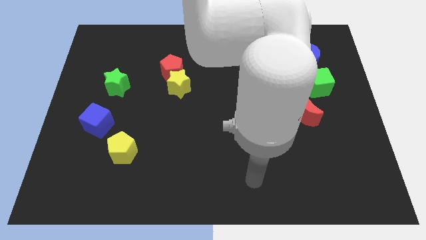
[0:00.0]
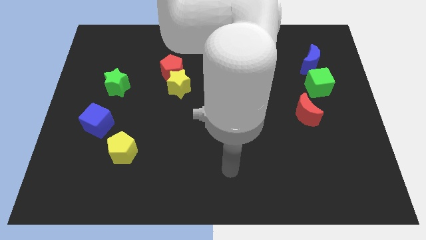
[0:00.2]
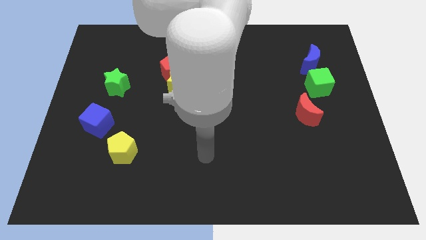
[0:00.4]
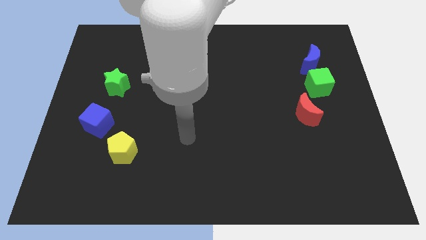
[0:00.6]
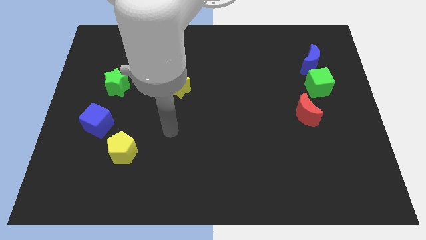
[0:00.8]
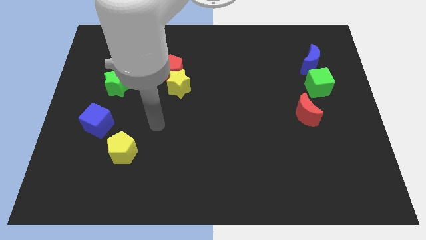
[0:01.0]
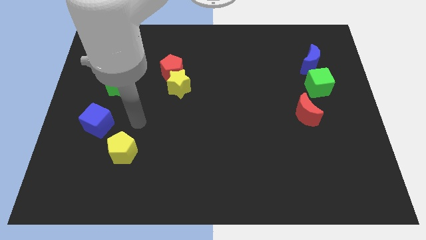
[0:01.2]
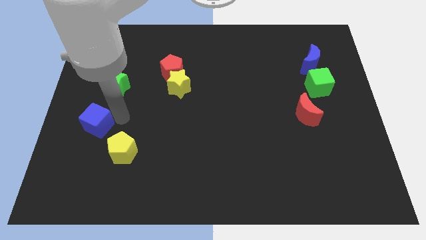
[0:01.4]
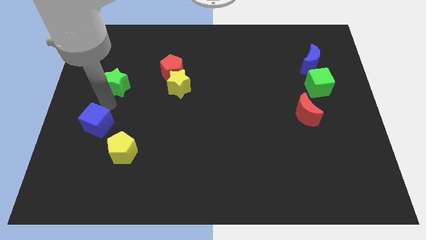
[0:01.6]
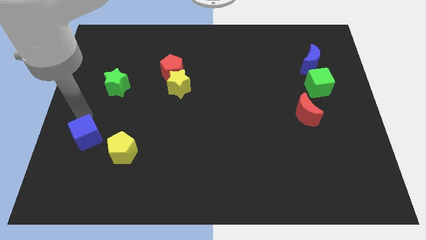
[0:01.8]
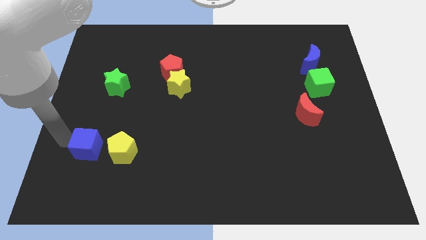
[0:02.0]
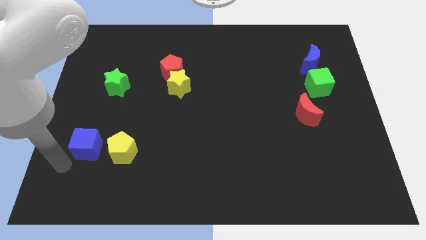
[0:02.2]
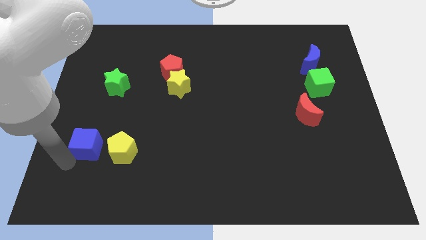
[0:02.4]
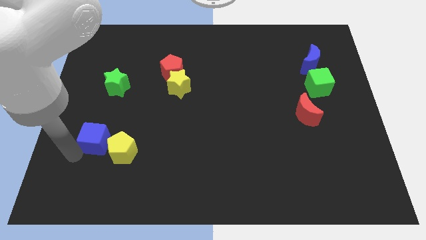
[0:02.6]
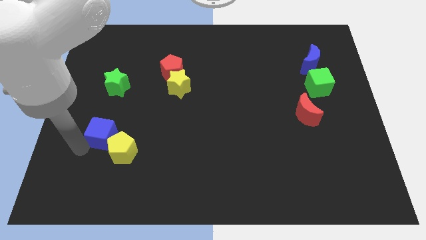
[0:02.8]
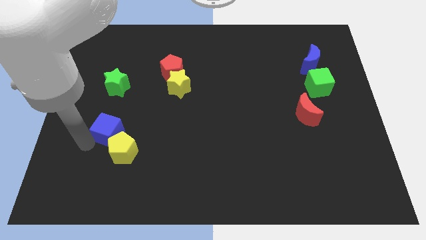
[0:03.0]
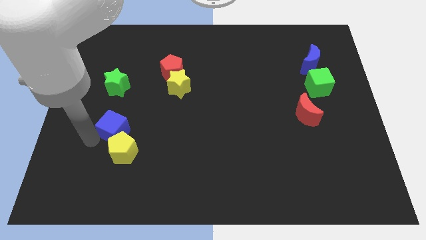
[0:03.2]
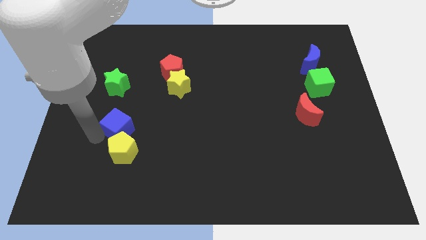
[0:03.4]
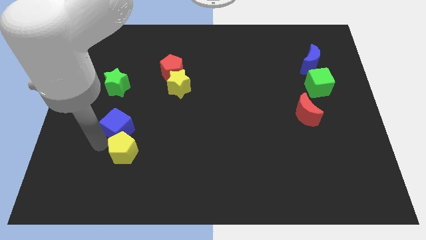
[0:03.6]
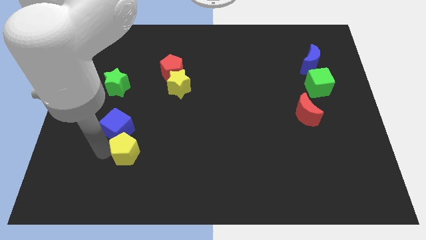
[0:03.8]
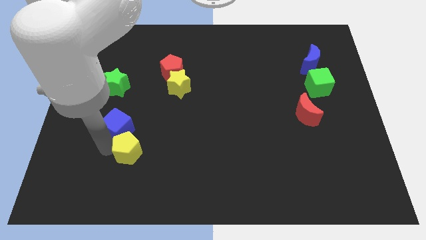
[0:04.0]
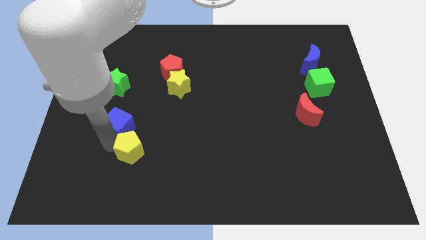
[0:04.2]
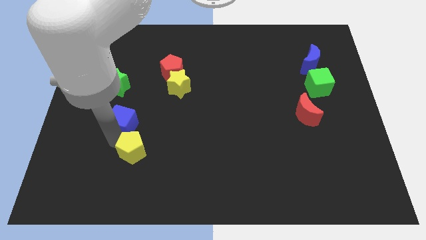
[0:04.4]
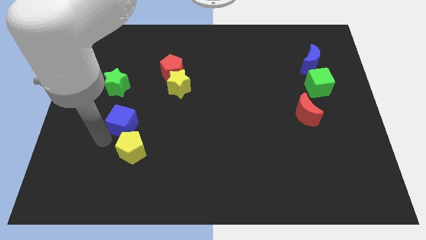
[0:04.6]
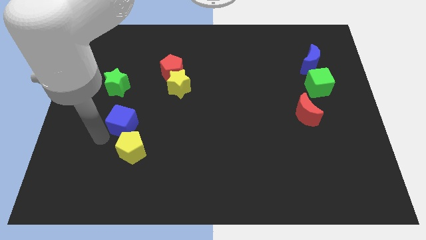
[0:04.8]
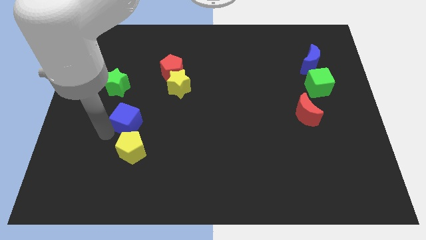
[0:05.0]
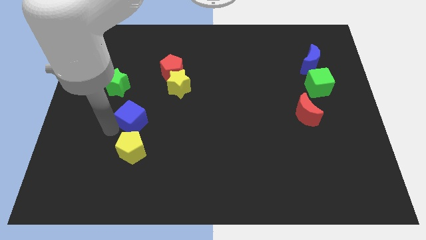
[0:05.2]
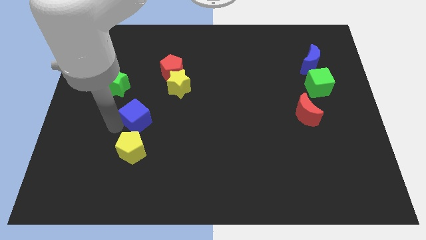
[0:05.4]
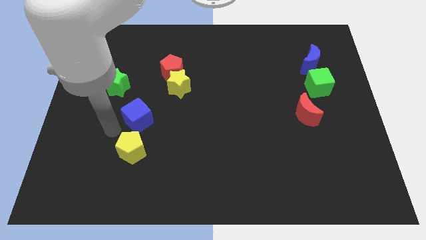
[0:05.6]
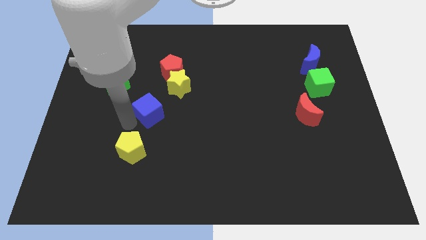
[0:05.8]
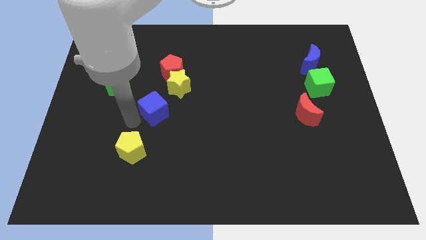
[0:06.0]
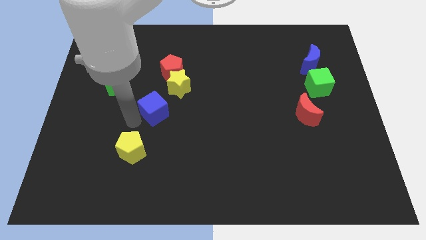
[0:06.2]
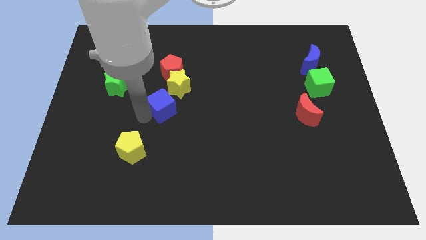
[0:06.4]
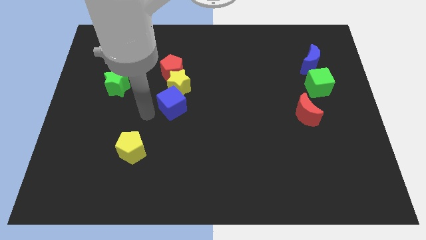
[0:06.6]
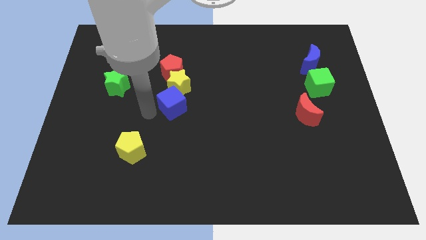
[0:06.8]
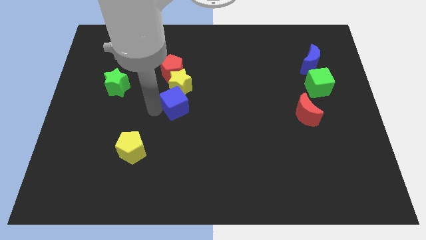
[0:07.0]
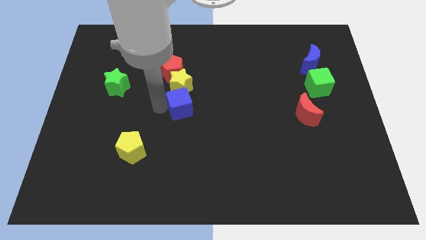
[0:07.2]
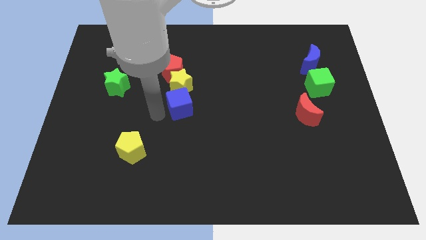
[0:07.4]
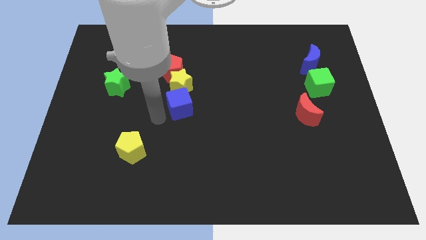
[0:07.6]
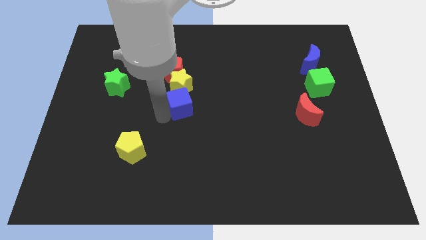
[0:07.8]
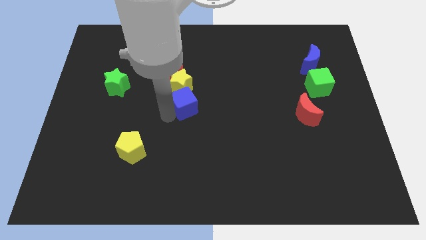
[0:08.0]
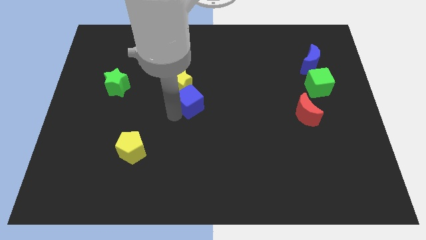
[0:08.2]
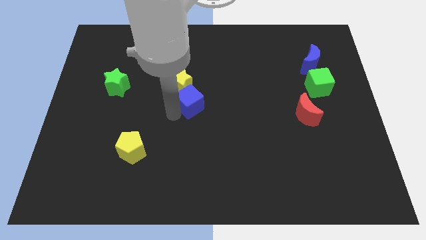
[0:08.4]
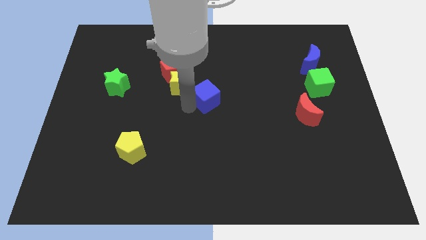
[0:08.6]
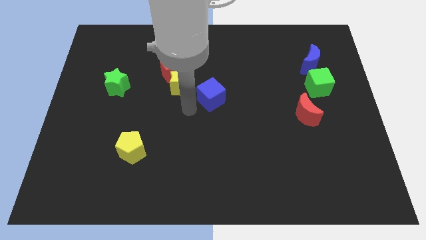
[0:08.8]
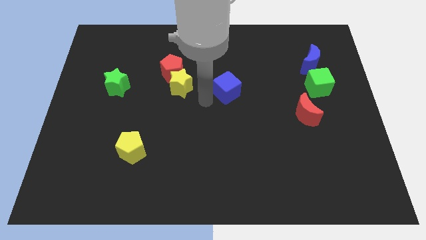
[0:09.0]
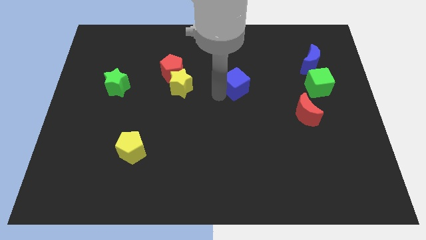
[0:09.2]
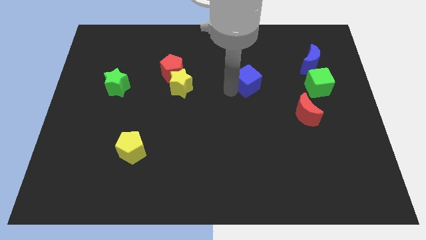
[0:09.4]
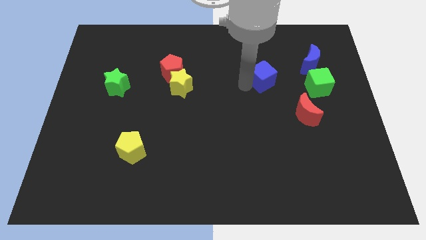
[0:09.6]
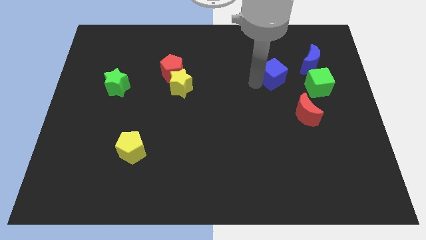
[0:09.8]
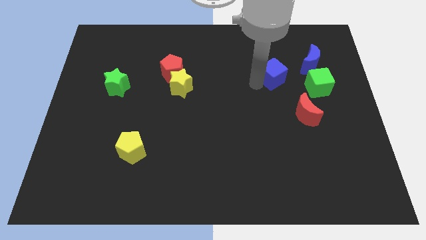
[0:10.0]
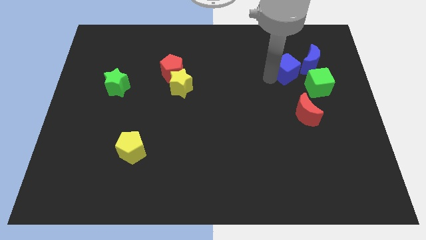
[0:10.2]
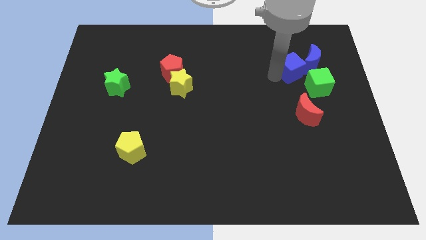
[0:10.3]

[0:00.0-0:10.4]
slide the blue cube close to the blue moon

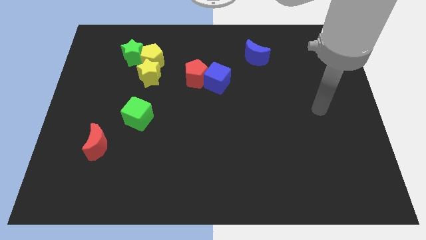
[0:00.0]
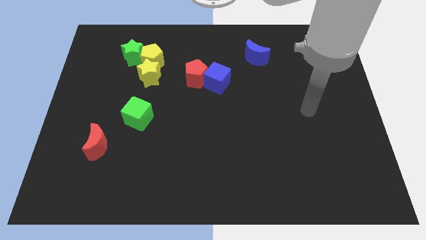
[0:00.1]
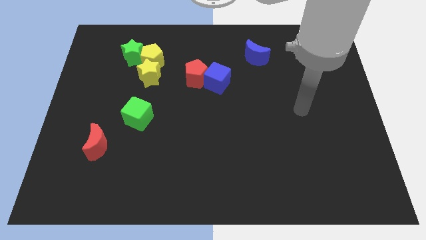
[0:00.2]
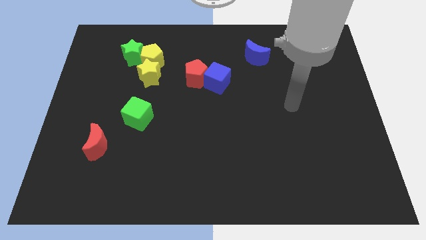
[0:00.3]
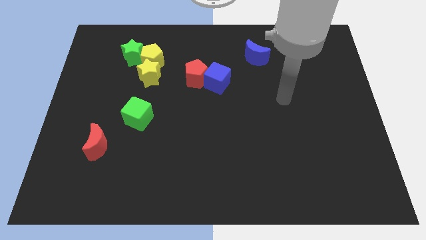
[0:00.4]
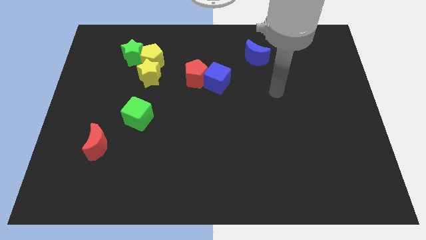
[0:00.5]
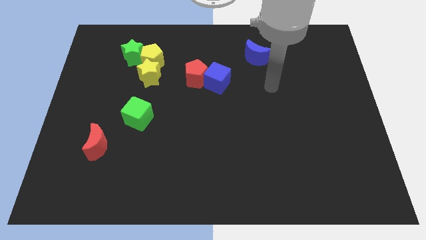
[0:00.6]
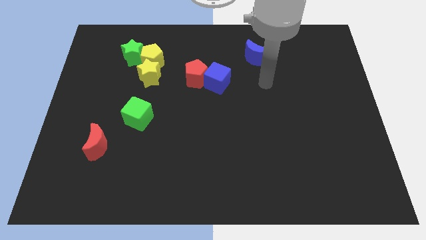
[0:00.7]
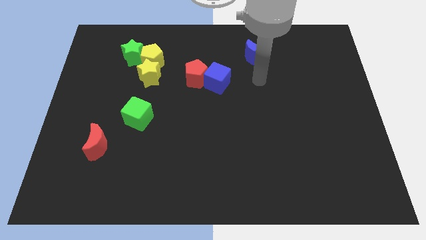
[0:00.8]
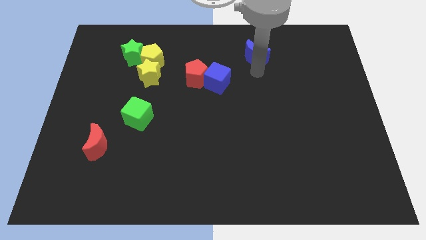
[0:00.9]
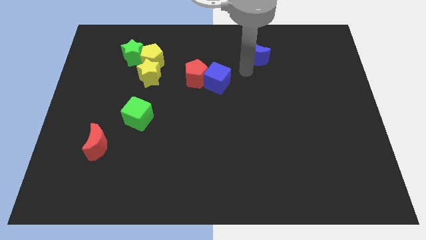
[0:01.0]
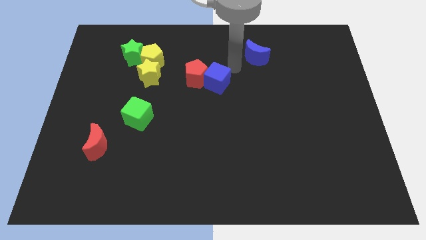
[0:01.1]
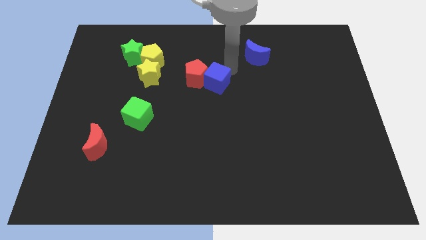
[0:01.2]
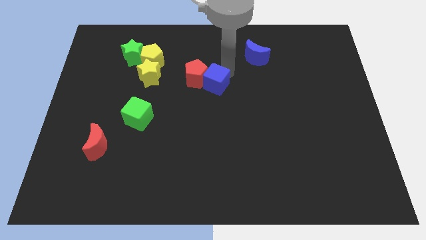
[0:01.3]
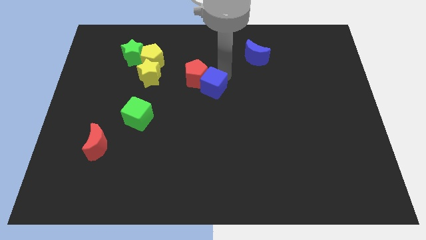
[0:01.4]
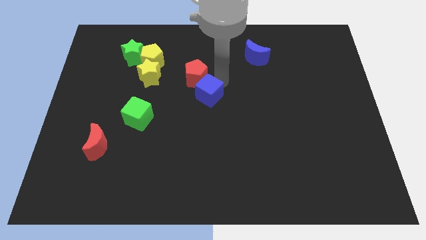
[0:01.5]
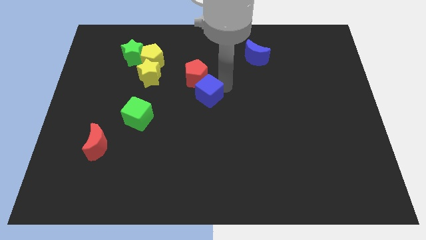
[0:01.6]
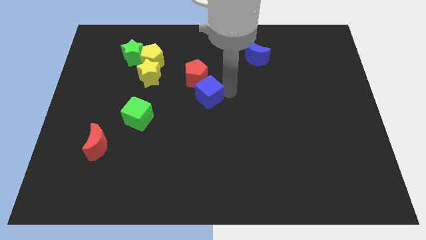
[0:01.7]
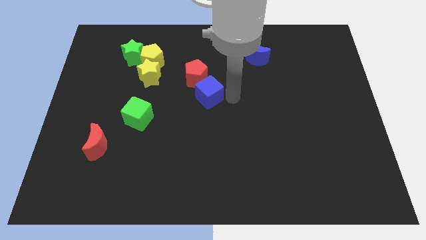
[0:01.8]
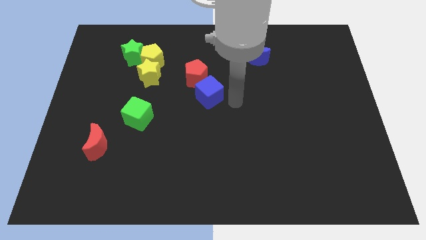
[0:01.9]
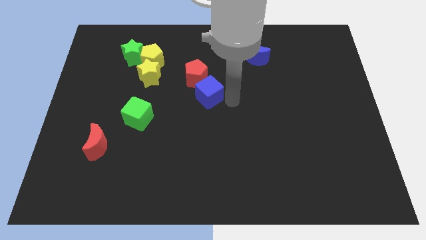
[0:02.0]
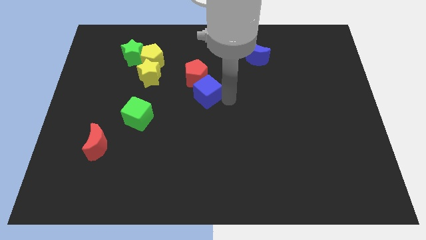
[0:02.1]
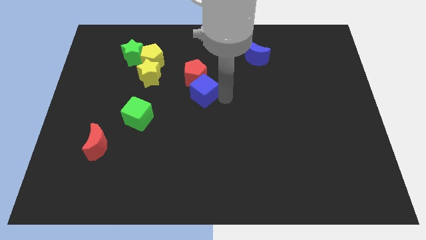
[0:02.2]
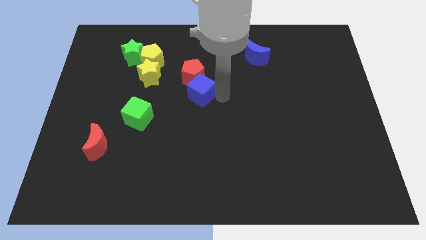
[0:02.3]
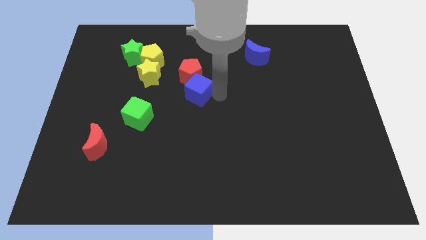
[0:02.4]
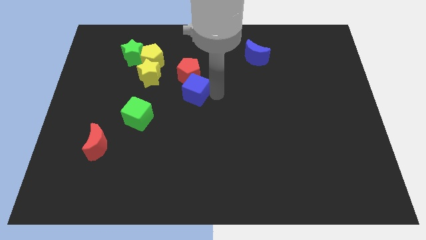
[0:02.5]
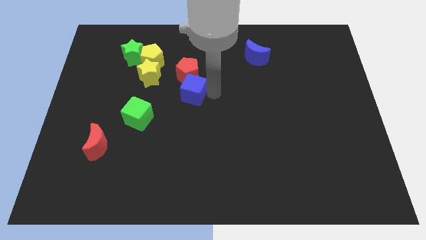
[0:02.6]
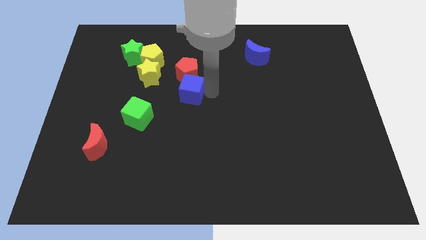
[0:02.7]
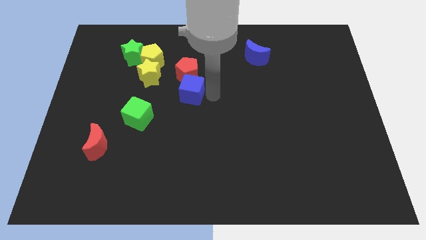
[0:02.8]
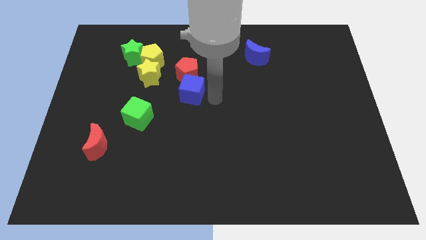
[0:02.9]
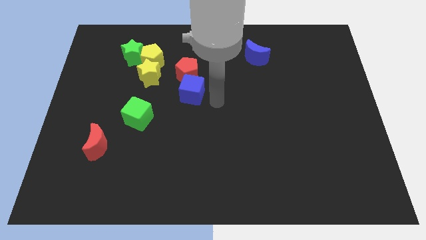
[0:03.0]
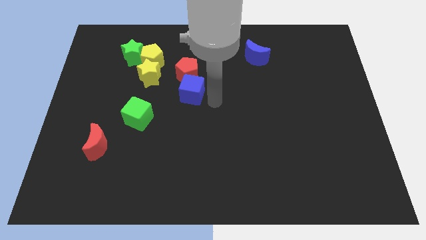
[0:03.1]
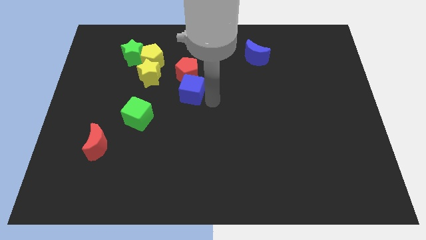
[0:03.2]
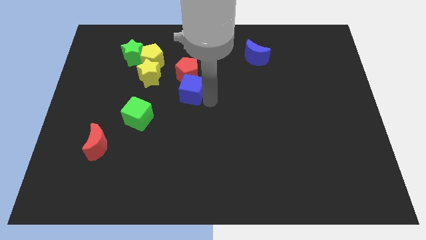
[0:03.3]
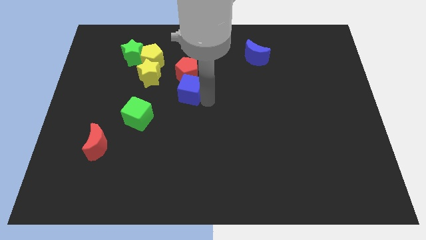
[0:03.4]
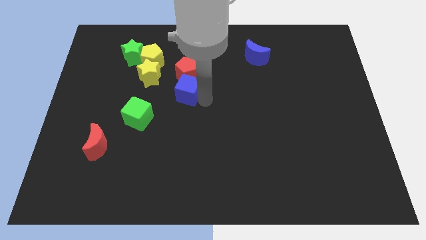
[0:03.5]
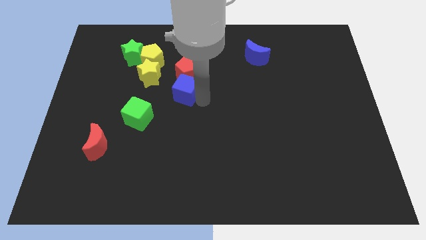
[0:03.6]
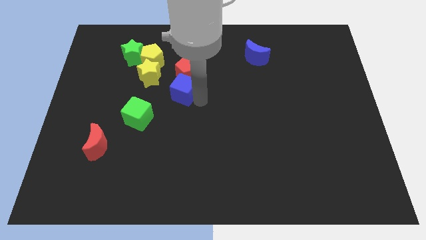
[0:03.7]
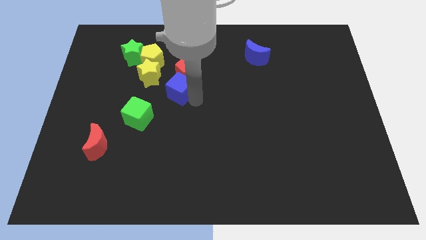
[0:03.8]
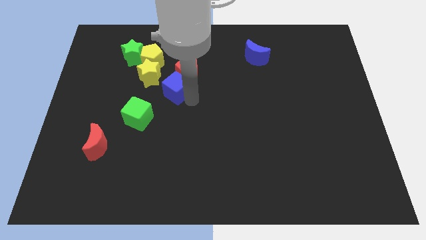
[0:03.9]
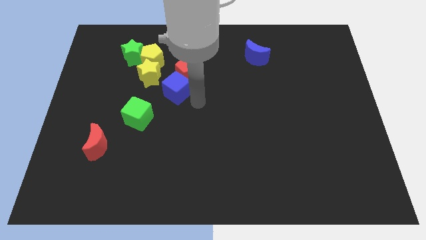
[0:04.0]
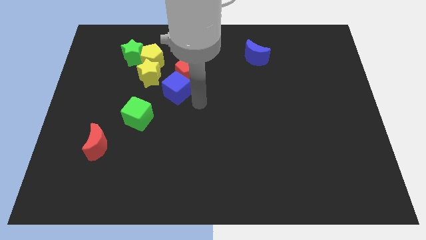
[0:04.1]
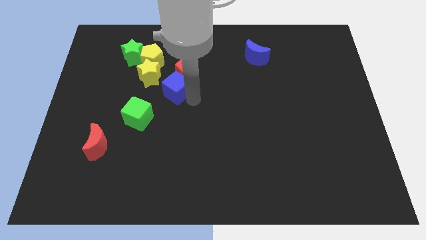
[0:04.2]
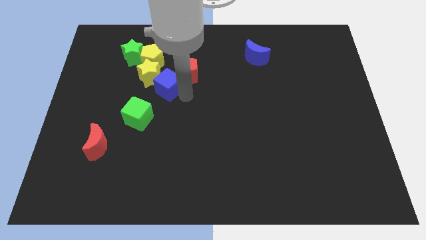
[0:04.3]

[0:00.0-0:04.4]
slide the blue cube next to the yellow star
